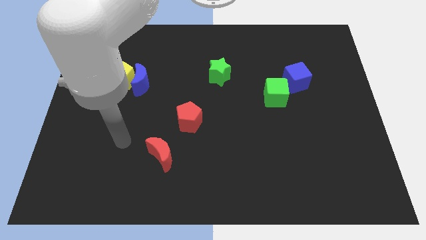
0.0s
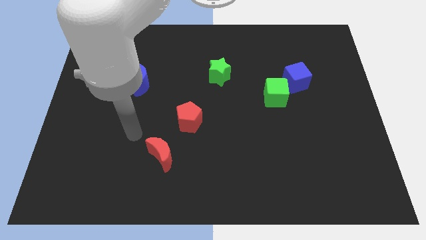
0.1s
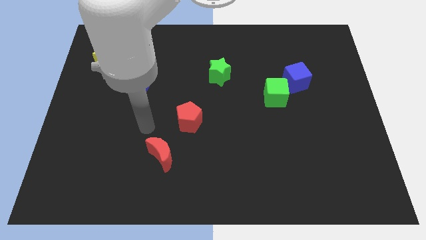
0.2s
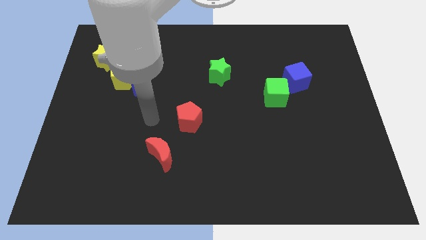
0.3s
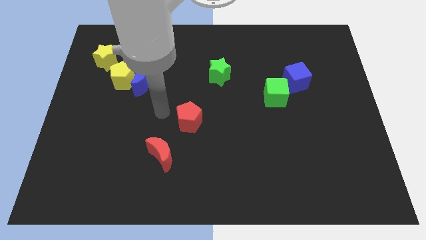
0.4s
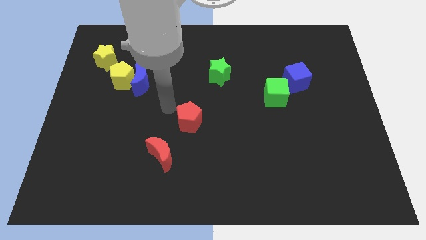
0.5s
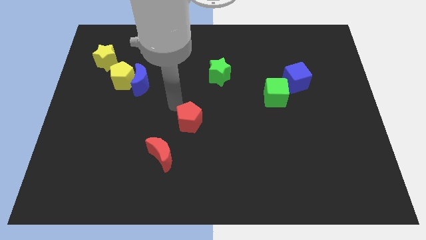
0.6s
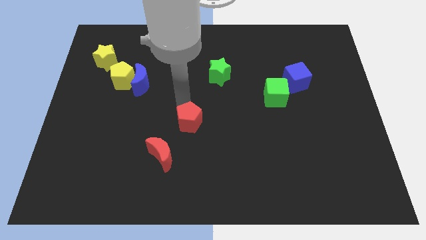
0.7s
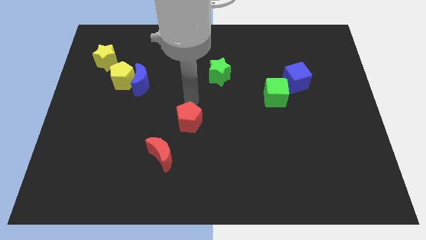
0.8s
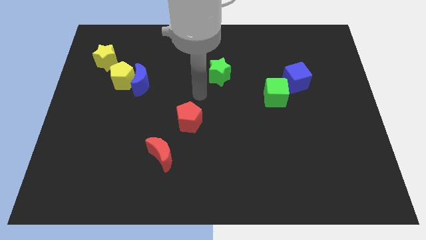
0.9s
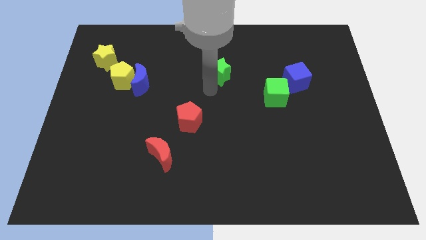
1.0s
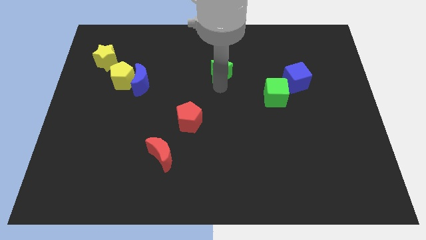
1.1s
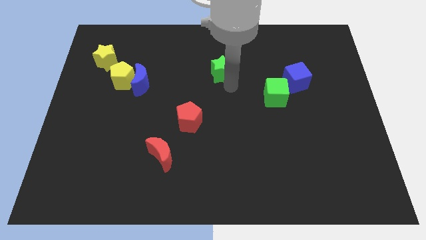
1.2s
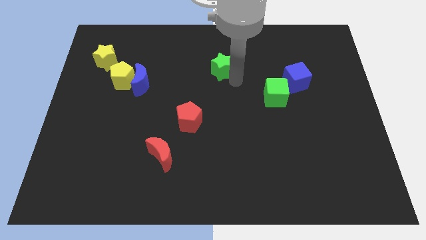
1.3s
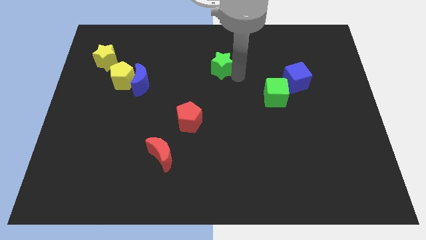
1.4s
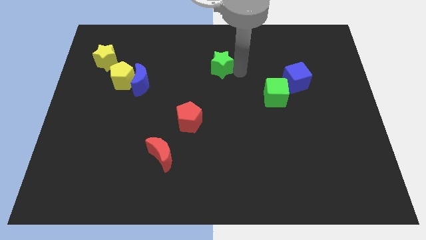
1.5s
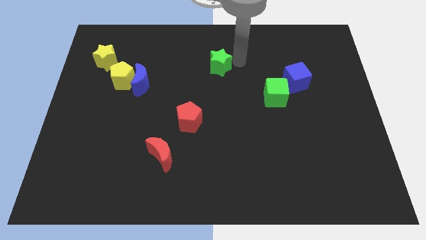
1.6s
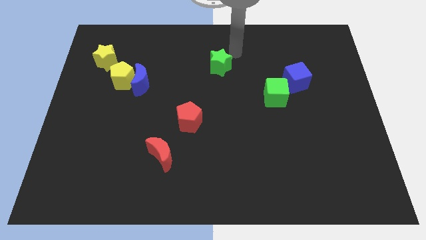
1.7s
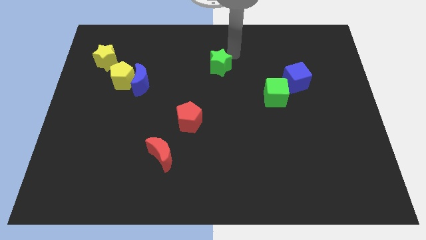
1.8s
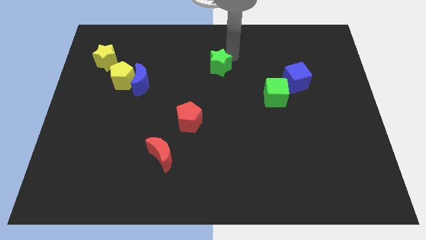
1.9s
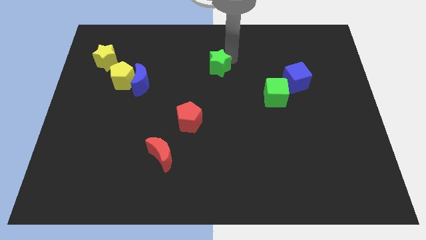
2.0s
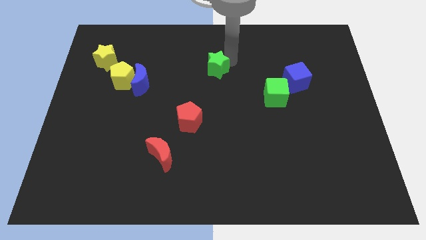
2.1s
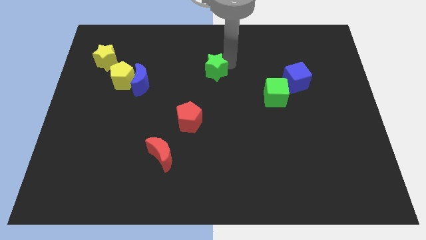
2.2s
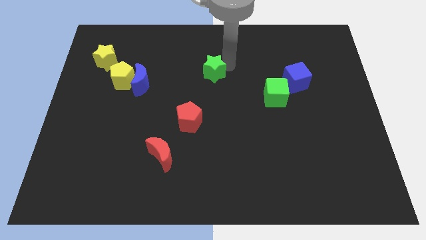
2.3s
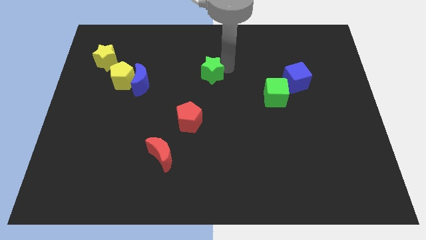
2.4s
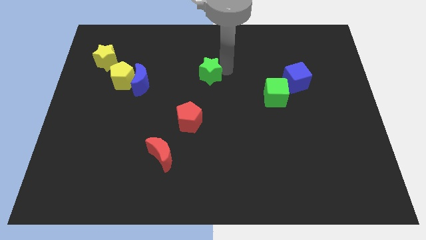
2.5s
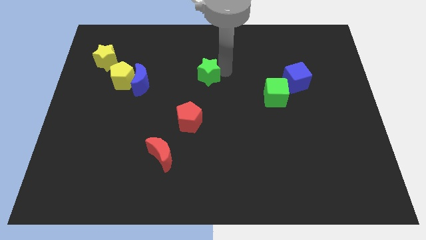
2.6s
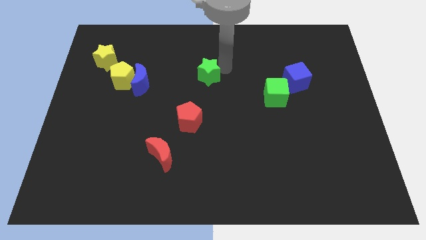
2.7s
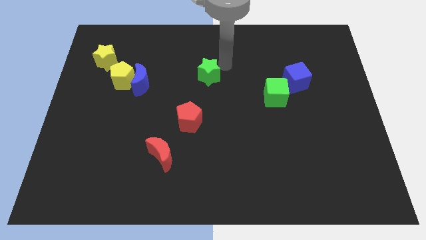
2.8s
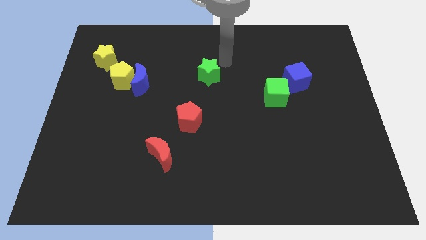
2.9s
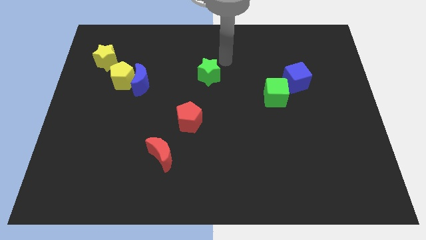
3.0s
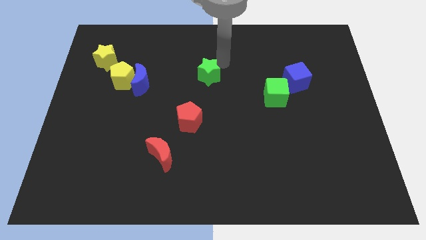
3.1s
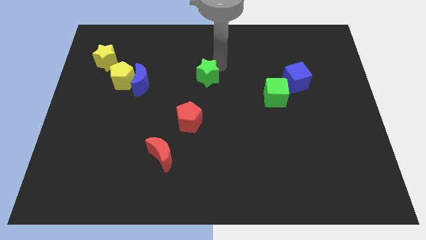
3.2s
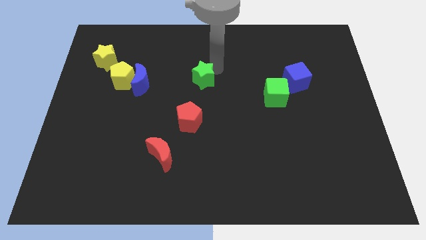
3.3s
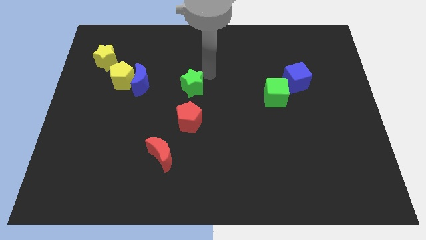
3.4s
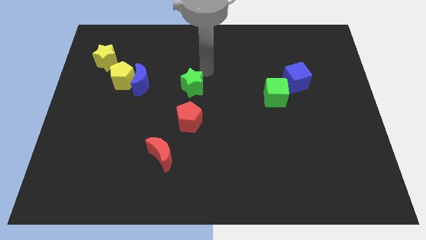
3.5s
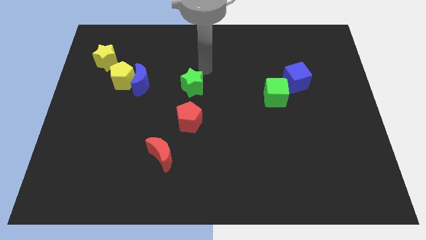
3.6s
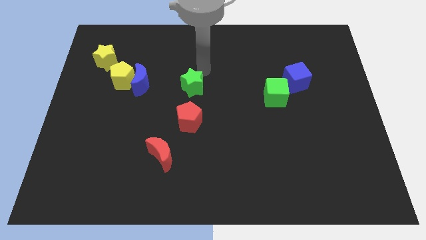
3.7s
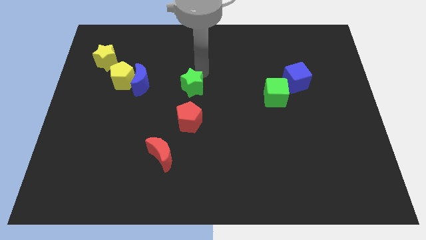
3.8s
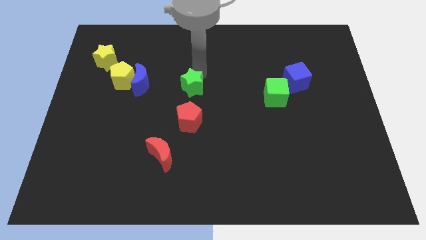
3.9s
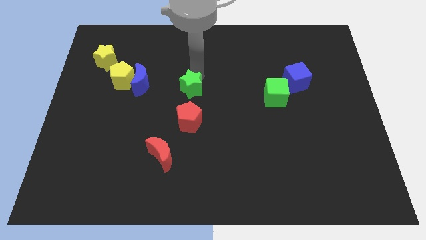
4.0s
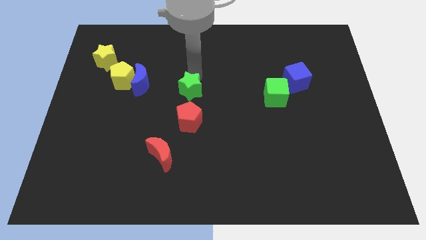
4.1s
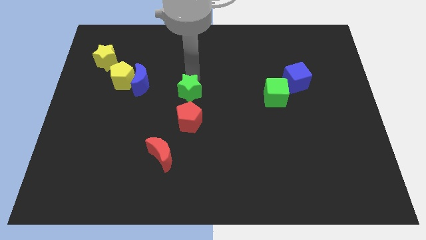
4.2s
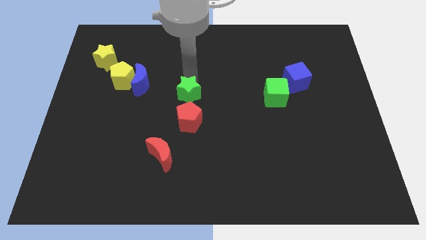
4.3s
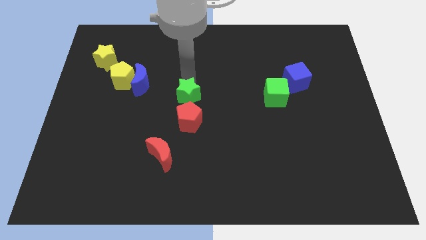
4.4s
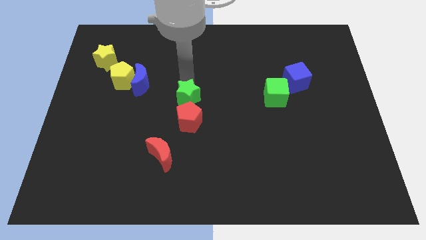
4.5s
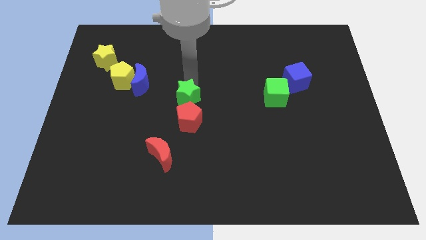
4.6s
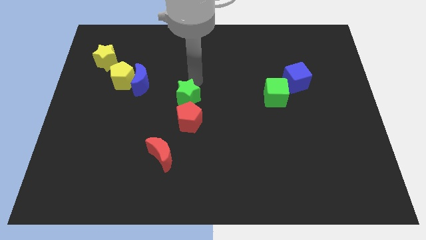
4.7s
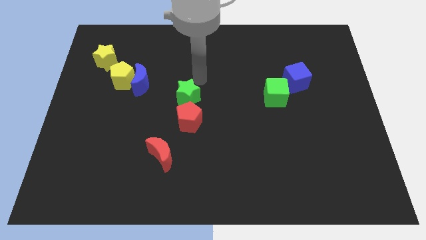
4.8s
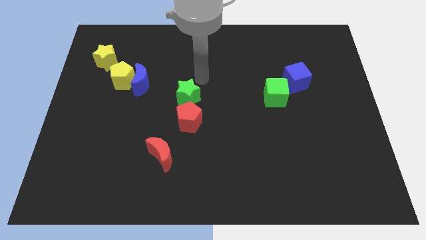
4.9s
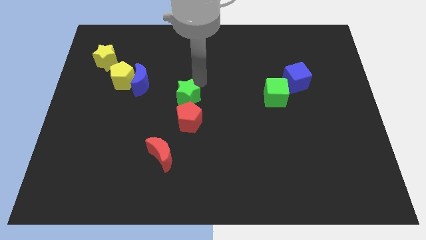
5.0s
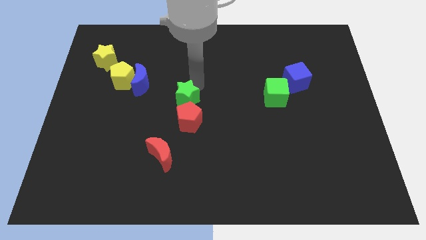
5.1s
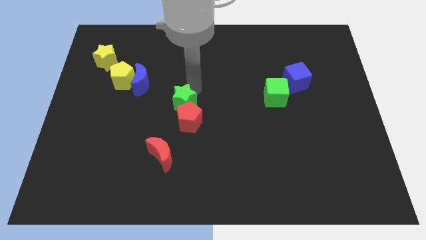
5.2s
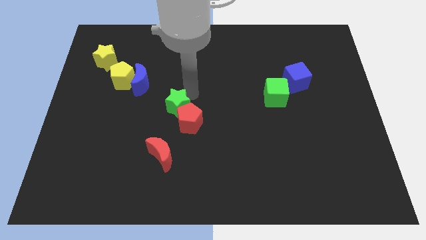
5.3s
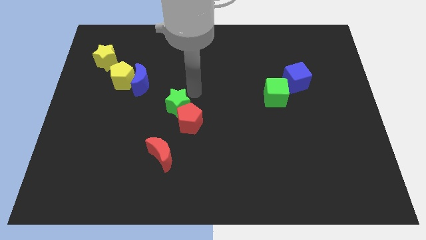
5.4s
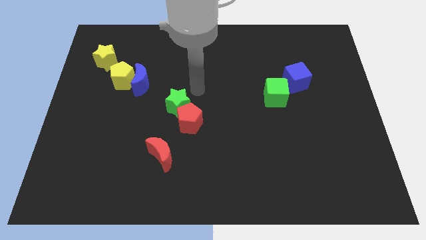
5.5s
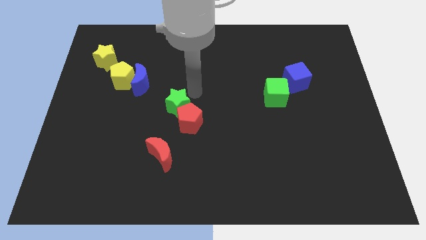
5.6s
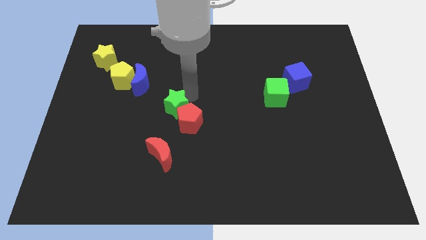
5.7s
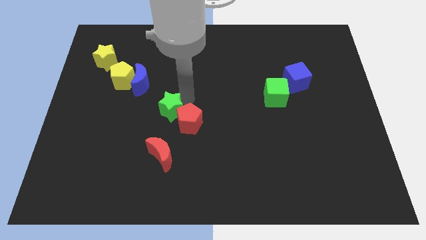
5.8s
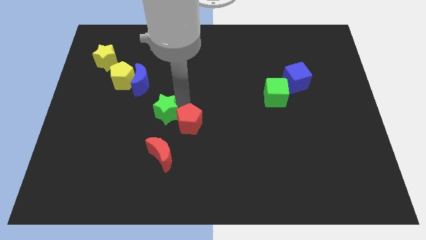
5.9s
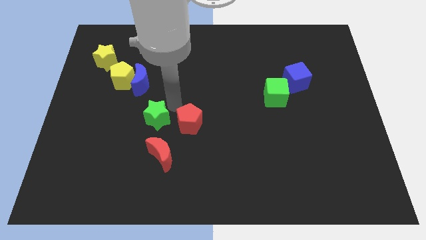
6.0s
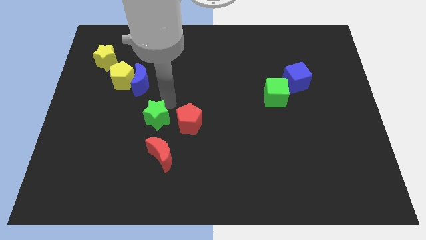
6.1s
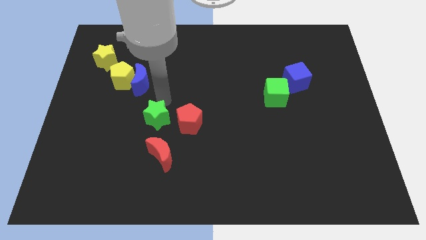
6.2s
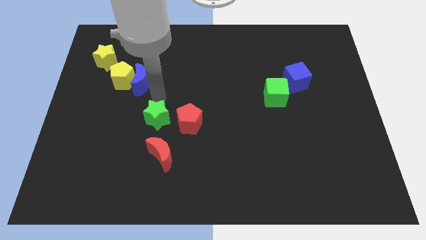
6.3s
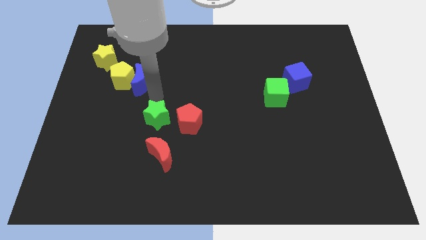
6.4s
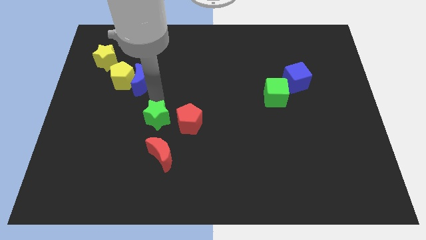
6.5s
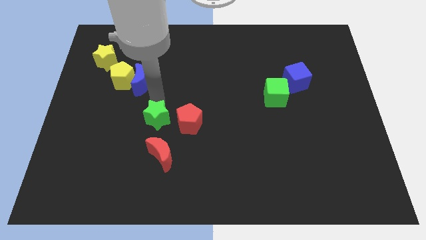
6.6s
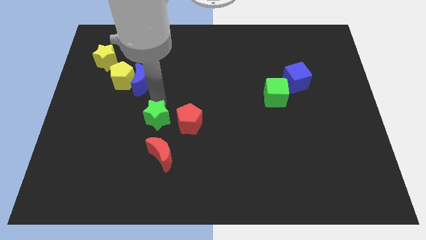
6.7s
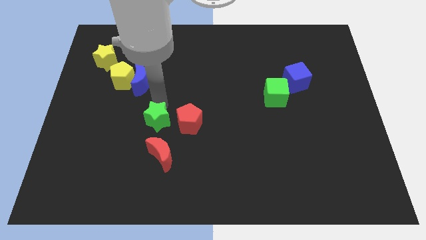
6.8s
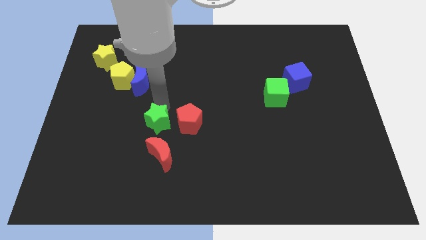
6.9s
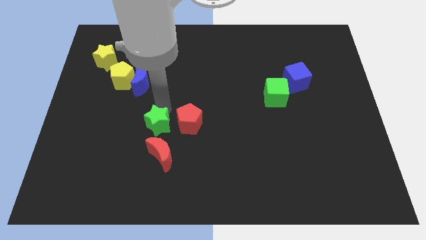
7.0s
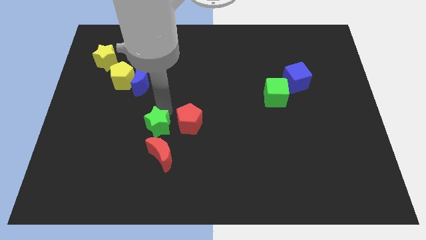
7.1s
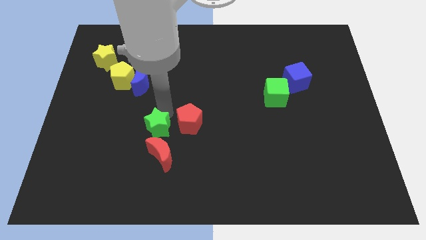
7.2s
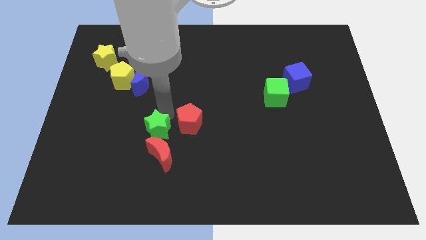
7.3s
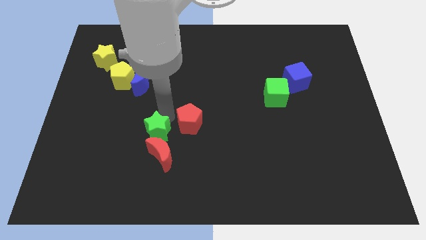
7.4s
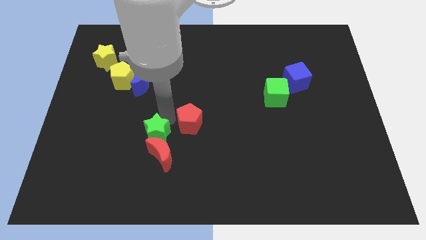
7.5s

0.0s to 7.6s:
move the green star to the red moon
